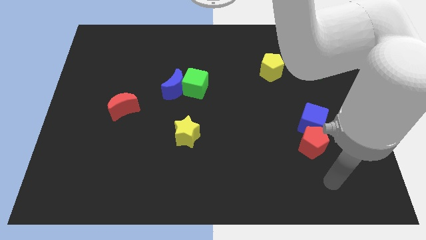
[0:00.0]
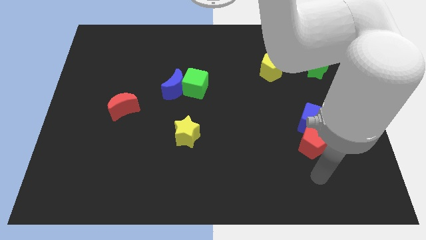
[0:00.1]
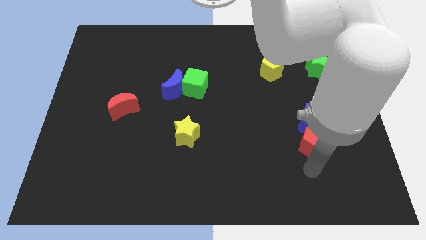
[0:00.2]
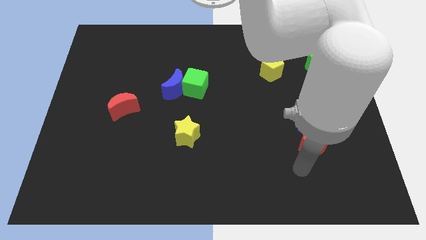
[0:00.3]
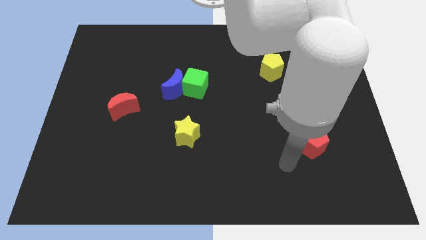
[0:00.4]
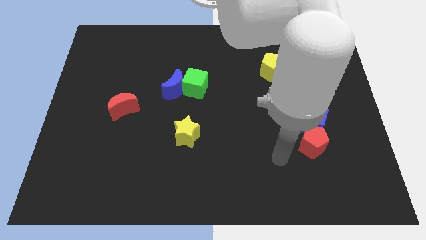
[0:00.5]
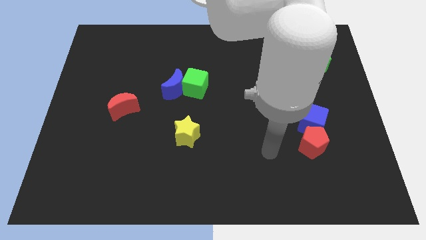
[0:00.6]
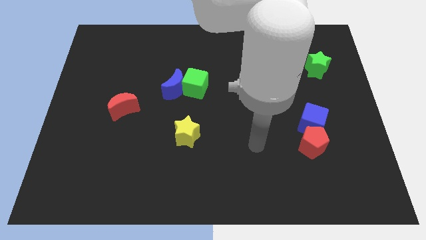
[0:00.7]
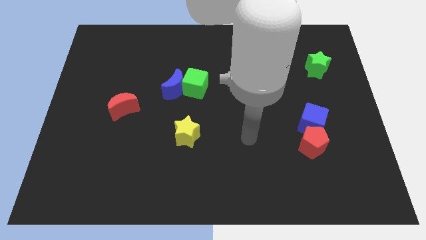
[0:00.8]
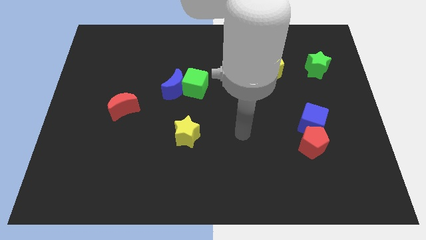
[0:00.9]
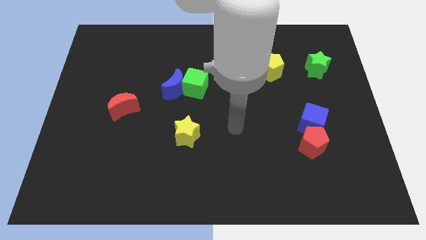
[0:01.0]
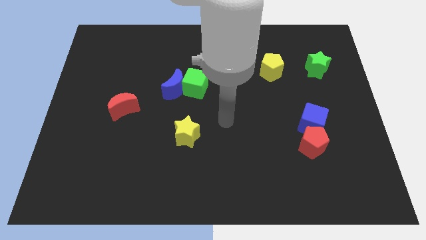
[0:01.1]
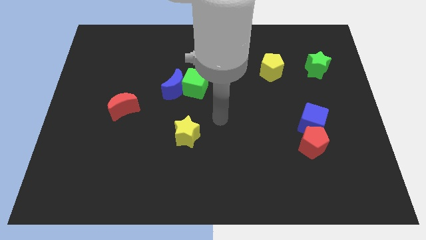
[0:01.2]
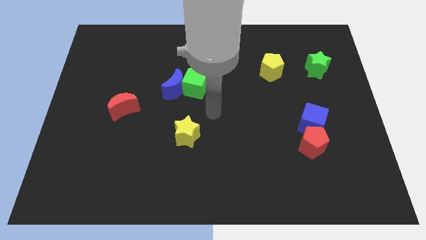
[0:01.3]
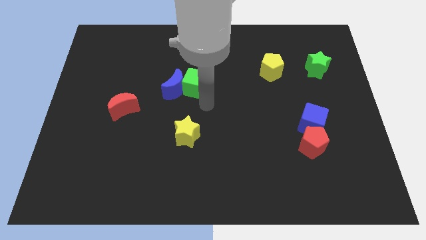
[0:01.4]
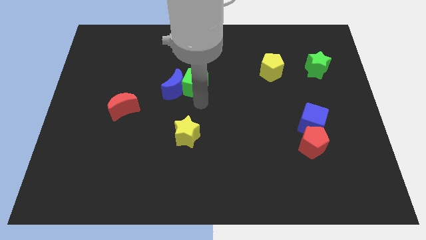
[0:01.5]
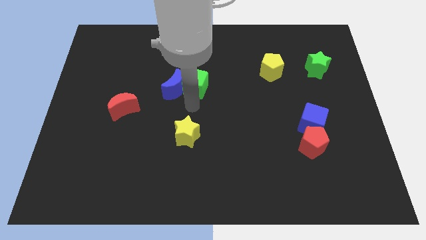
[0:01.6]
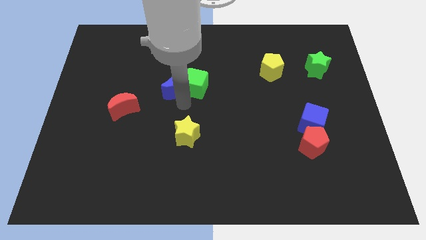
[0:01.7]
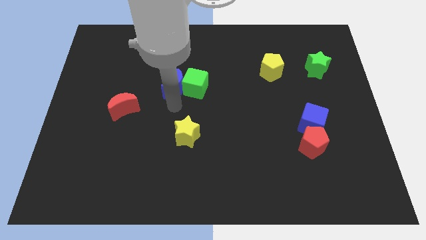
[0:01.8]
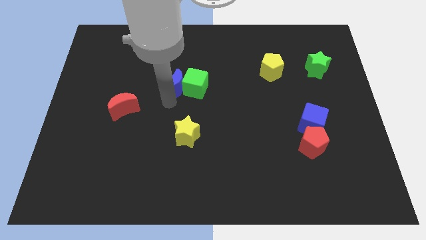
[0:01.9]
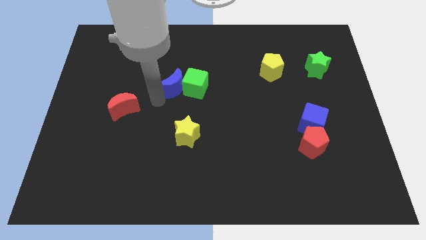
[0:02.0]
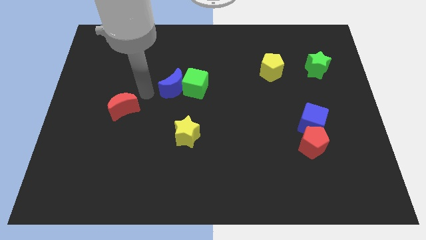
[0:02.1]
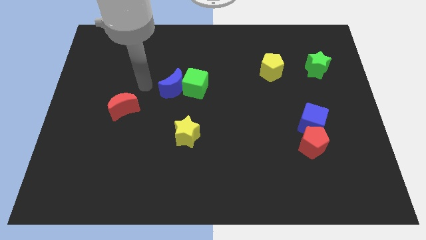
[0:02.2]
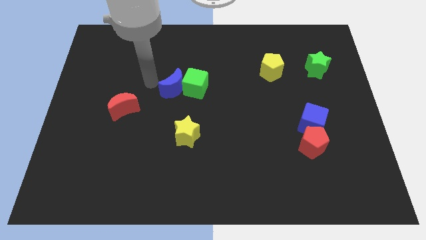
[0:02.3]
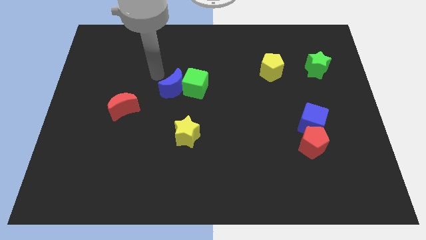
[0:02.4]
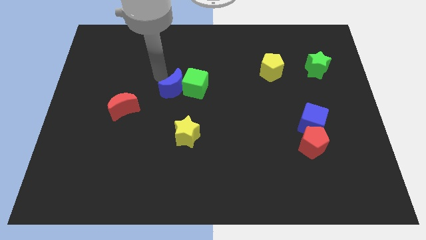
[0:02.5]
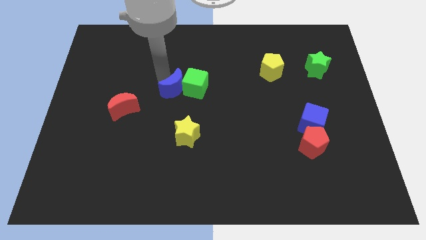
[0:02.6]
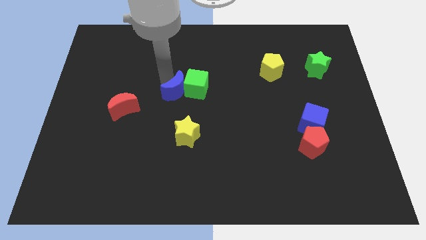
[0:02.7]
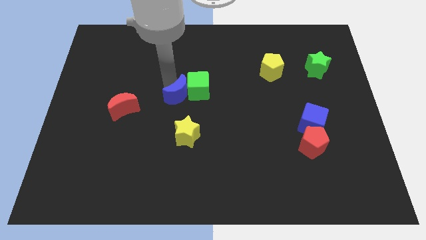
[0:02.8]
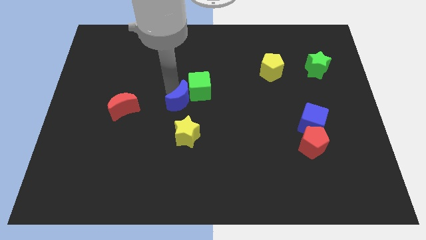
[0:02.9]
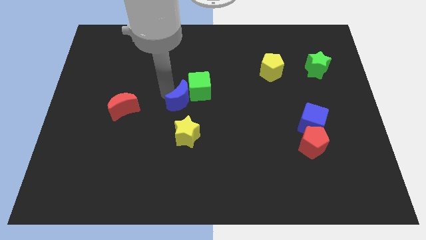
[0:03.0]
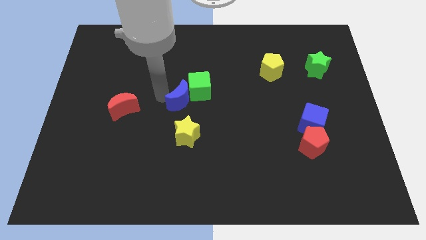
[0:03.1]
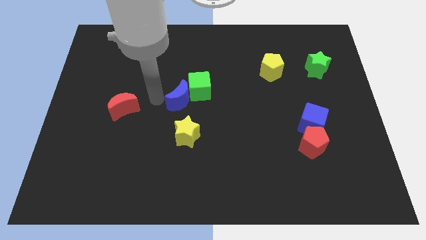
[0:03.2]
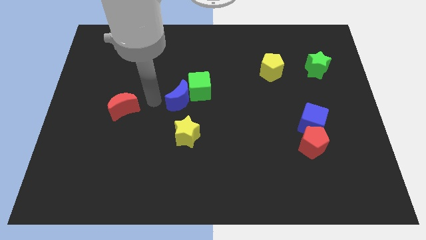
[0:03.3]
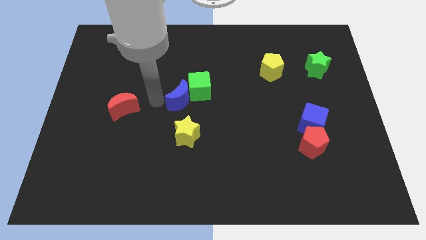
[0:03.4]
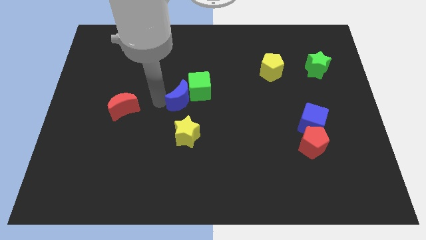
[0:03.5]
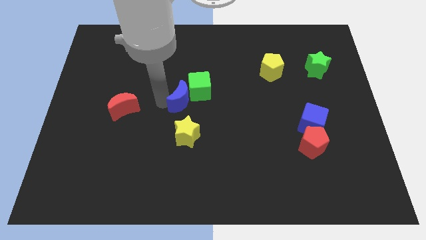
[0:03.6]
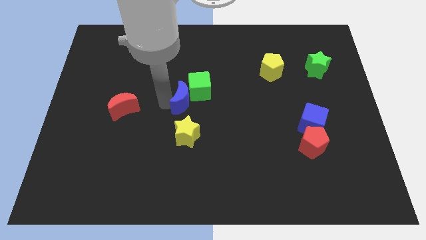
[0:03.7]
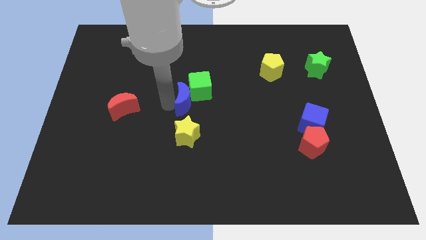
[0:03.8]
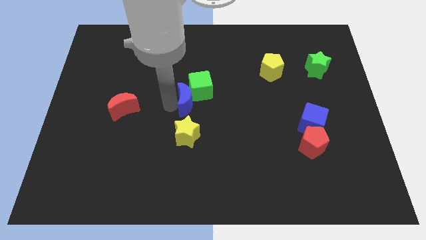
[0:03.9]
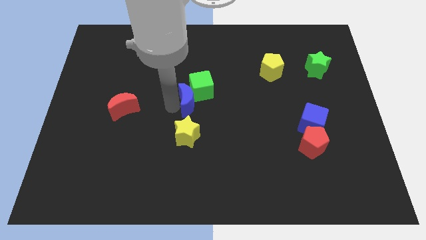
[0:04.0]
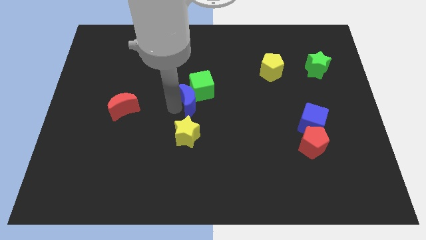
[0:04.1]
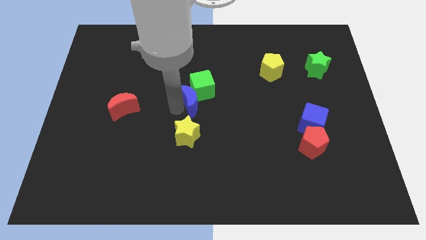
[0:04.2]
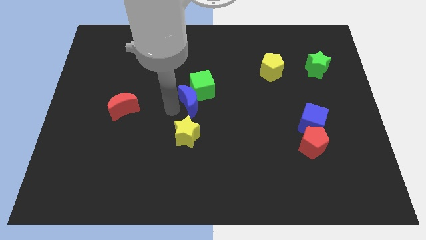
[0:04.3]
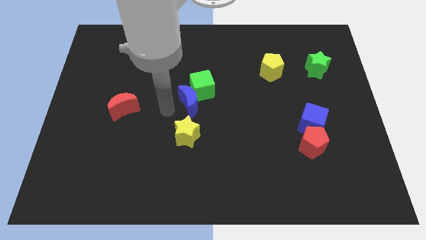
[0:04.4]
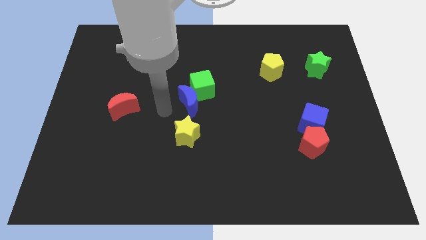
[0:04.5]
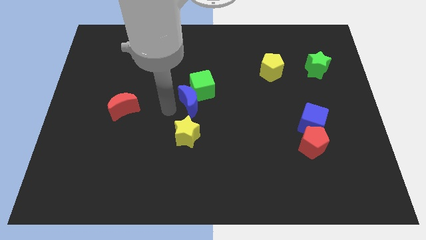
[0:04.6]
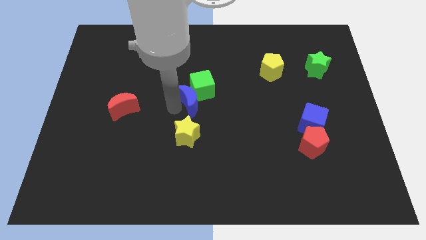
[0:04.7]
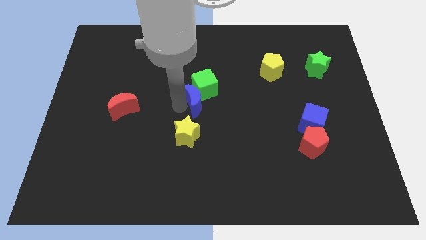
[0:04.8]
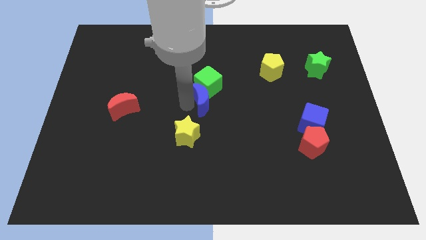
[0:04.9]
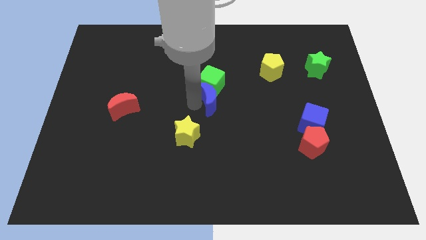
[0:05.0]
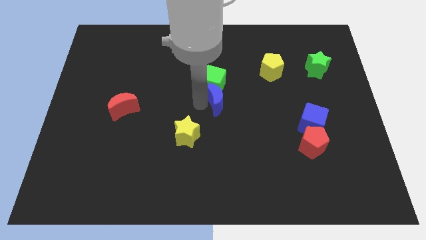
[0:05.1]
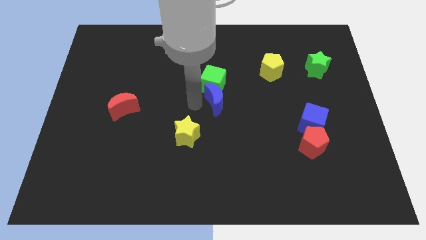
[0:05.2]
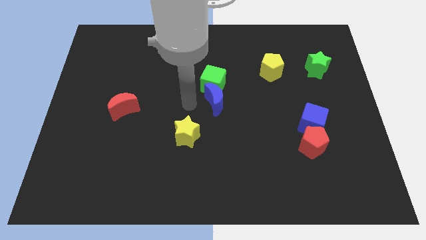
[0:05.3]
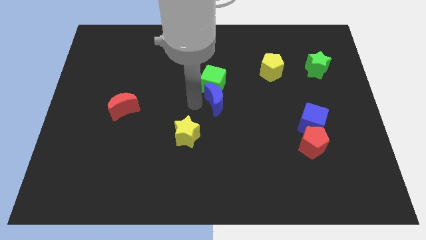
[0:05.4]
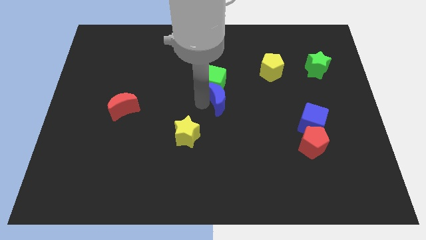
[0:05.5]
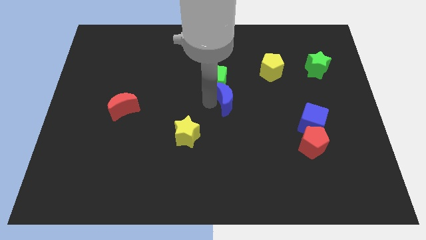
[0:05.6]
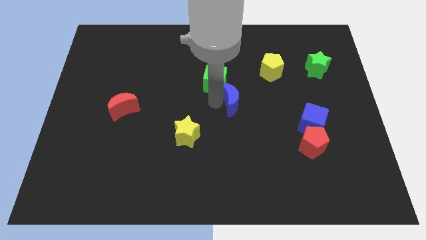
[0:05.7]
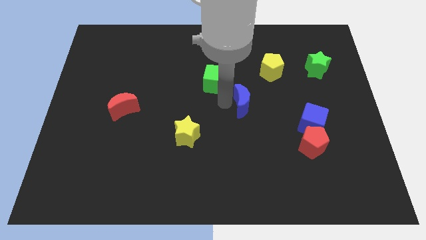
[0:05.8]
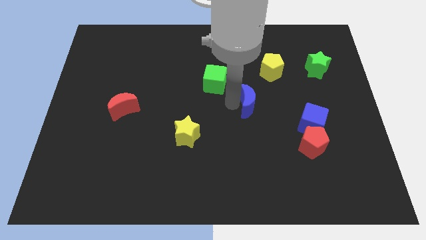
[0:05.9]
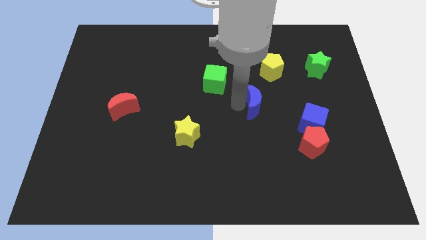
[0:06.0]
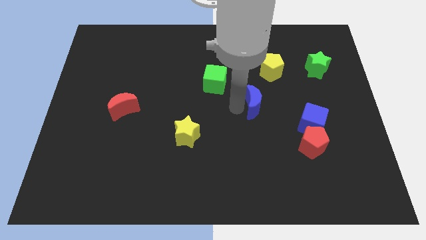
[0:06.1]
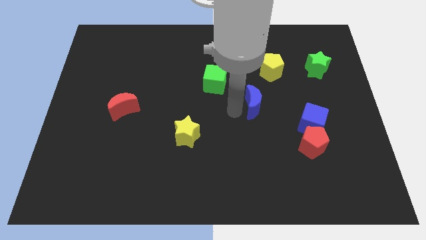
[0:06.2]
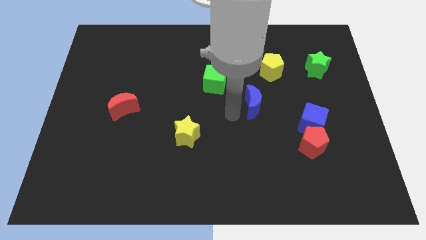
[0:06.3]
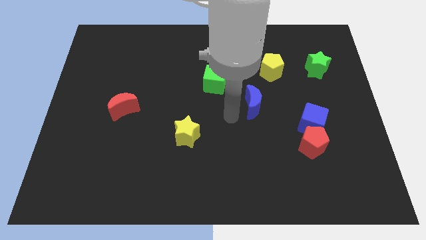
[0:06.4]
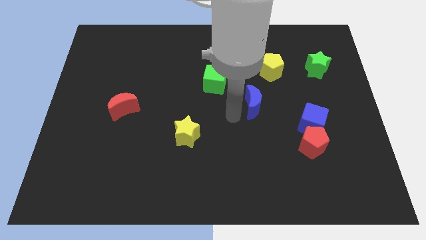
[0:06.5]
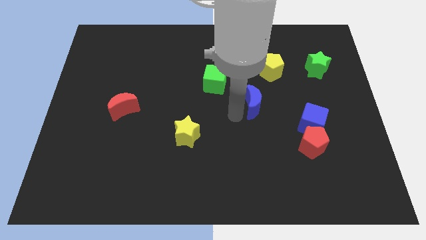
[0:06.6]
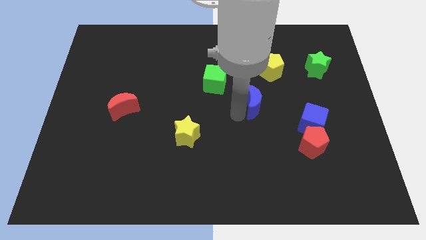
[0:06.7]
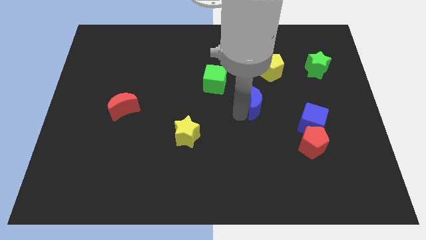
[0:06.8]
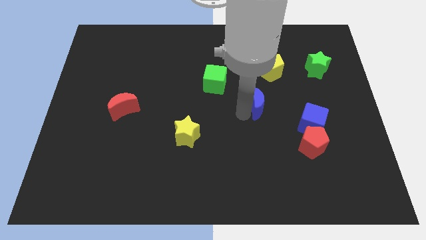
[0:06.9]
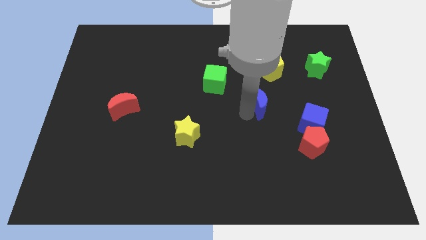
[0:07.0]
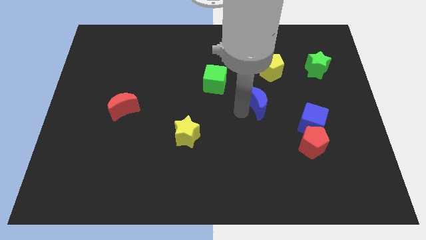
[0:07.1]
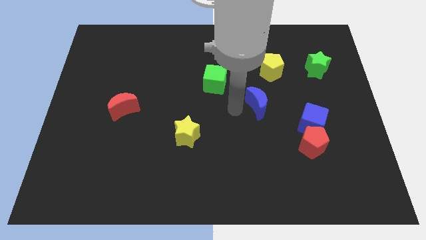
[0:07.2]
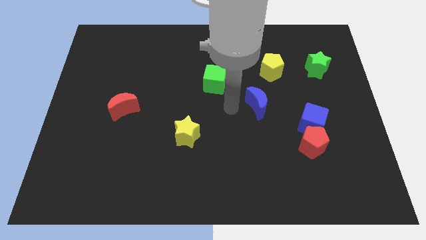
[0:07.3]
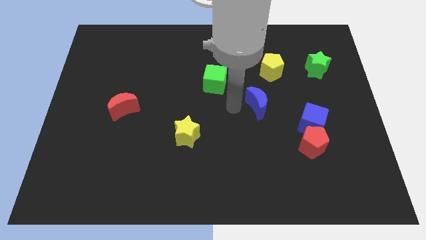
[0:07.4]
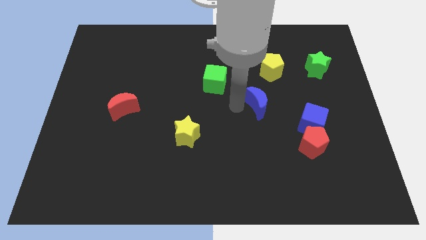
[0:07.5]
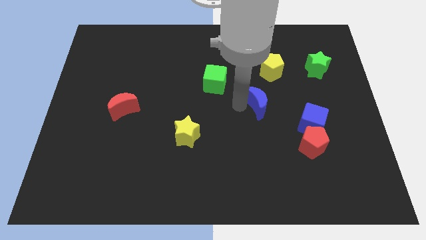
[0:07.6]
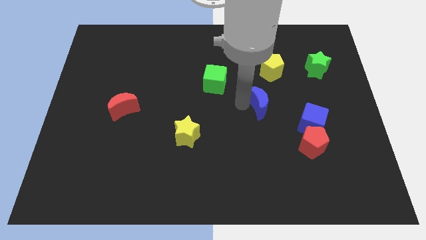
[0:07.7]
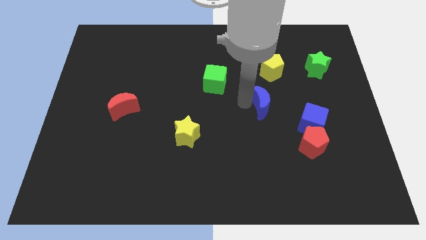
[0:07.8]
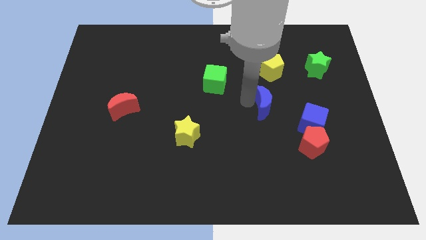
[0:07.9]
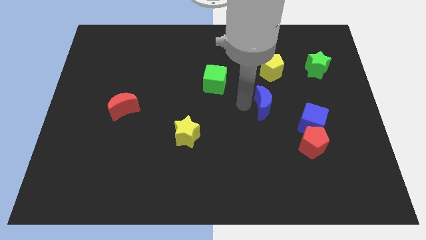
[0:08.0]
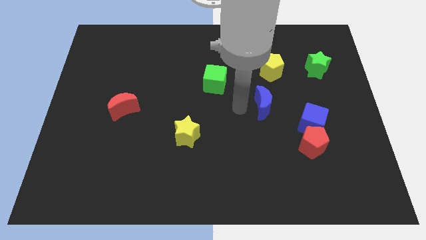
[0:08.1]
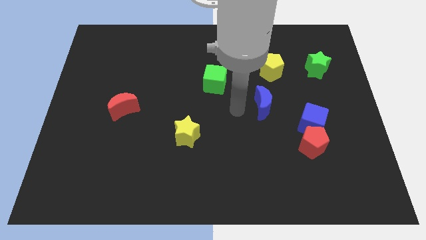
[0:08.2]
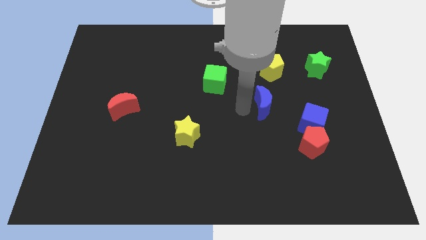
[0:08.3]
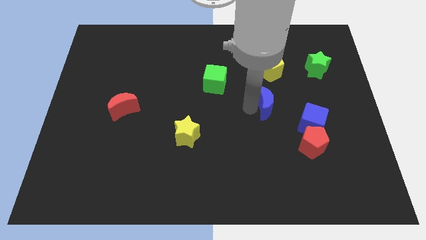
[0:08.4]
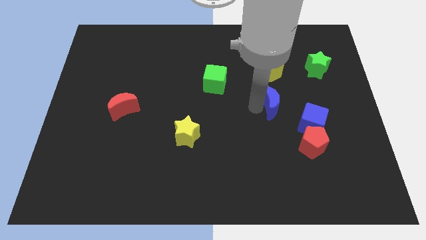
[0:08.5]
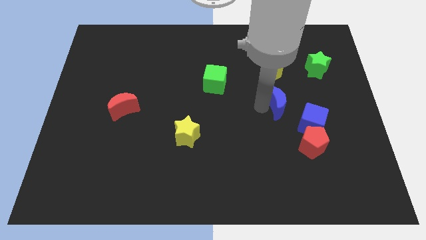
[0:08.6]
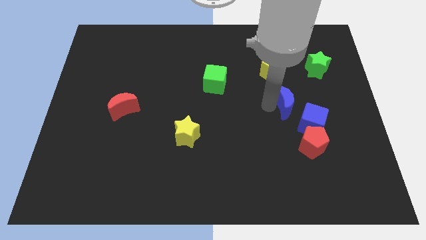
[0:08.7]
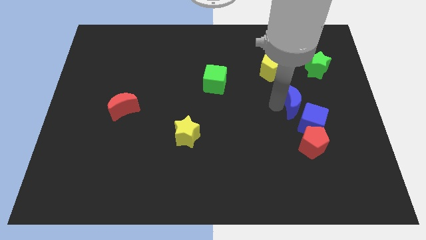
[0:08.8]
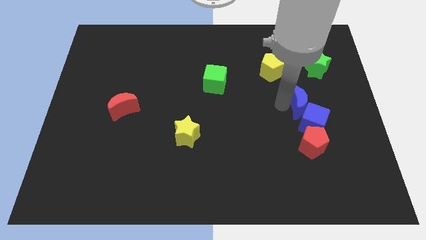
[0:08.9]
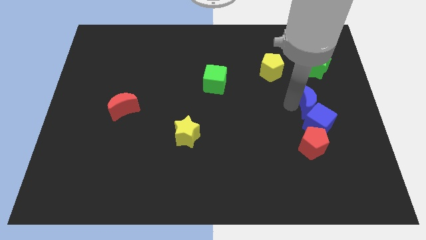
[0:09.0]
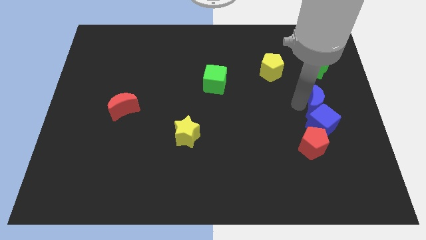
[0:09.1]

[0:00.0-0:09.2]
push the blue moon diagonally up and to the right of the blue cube
